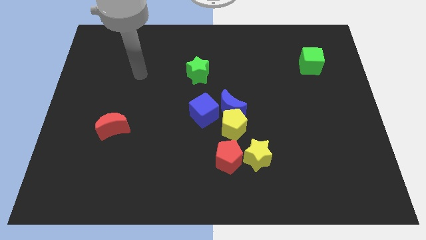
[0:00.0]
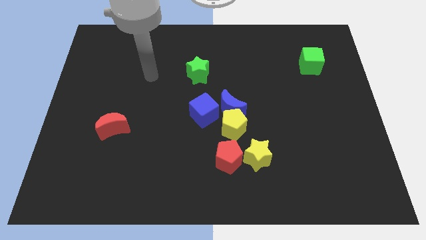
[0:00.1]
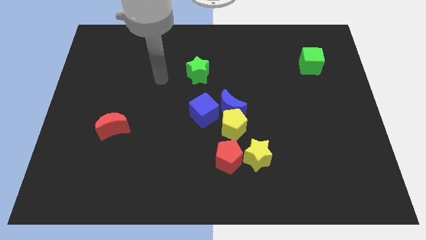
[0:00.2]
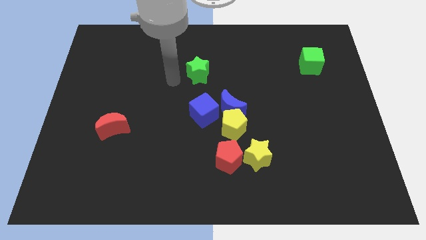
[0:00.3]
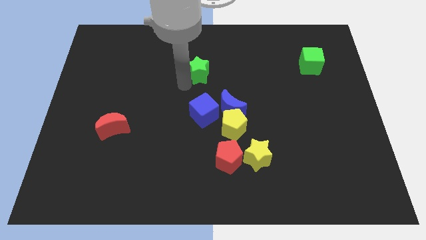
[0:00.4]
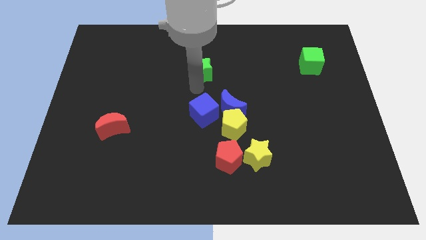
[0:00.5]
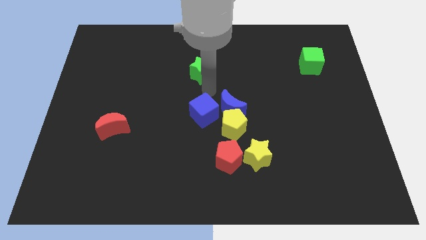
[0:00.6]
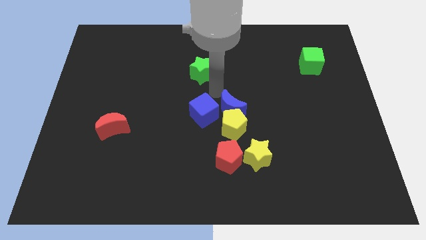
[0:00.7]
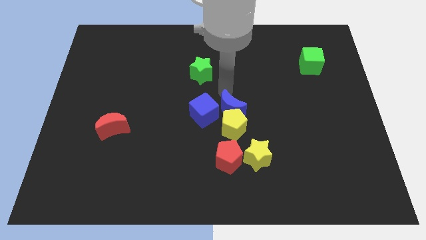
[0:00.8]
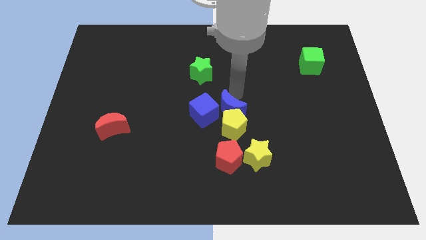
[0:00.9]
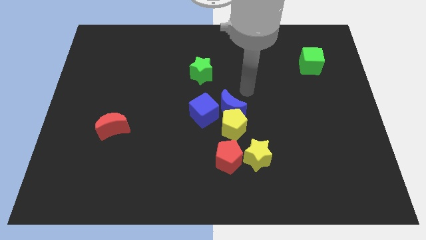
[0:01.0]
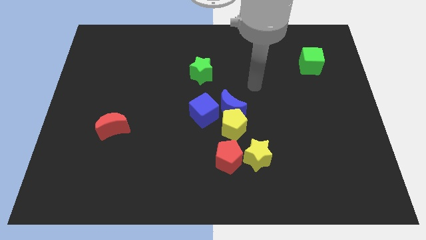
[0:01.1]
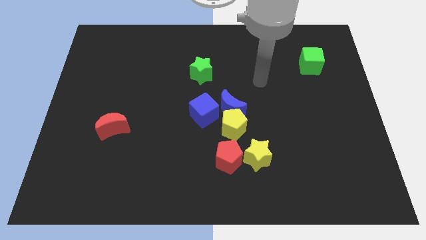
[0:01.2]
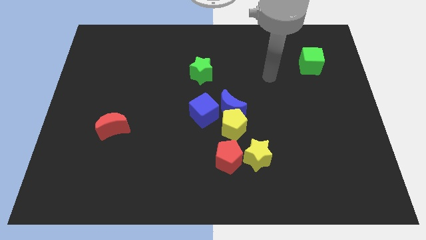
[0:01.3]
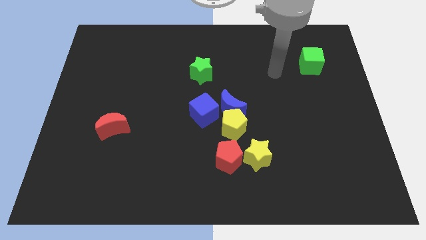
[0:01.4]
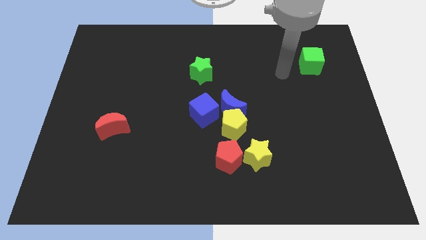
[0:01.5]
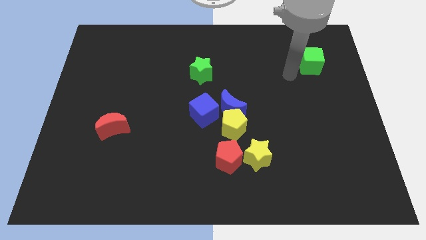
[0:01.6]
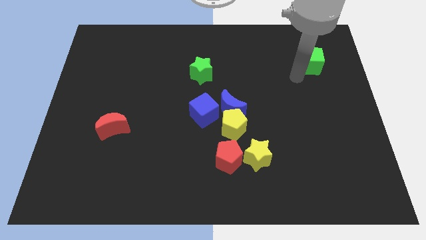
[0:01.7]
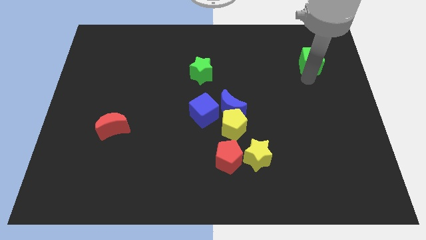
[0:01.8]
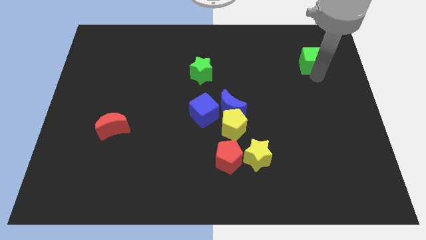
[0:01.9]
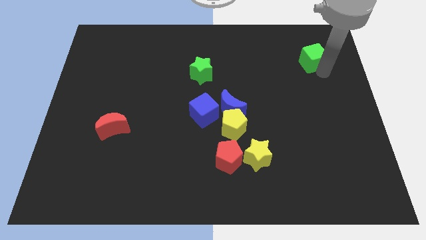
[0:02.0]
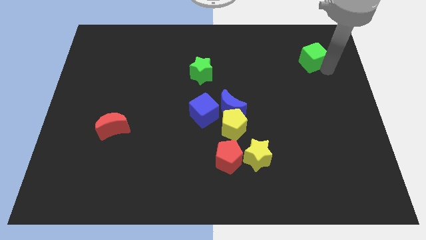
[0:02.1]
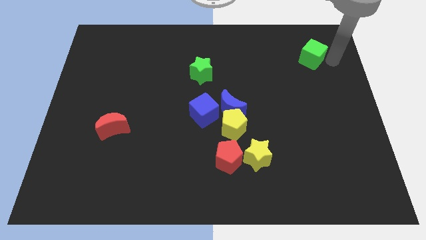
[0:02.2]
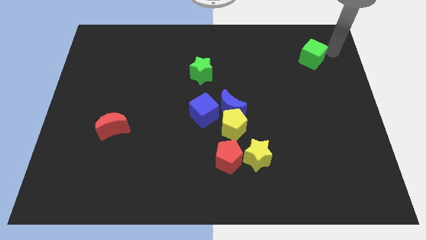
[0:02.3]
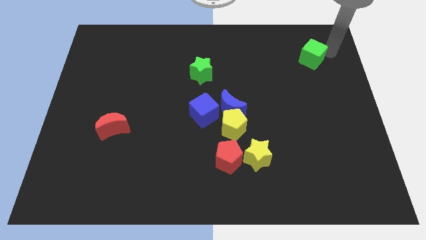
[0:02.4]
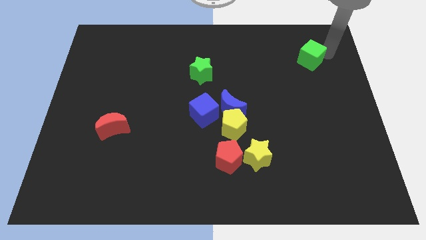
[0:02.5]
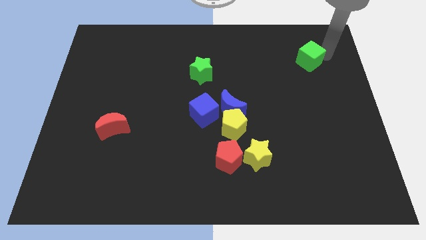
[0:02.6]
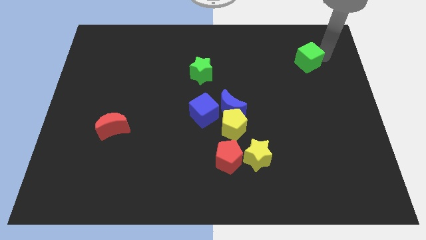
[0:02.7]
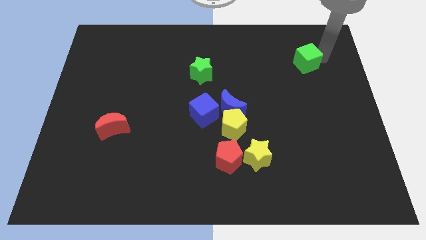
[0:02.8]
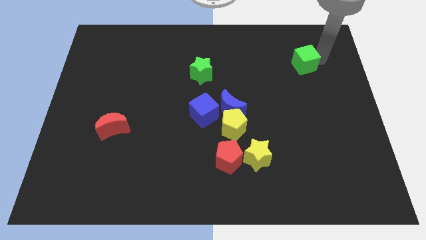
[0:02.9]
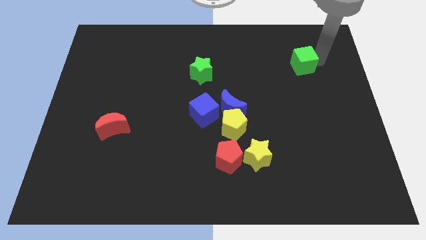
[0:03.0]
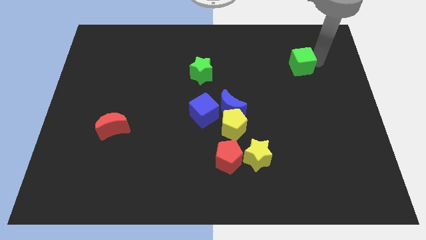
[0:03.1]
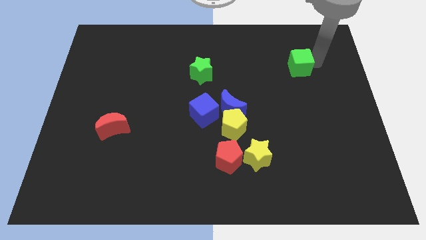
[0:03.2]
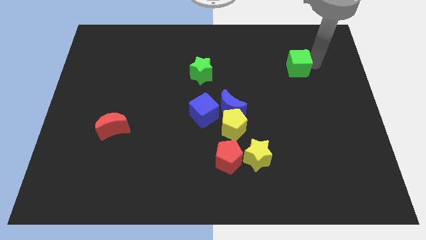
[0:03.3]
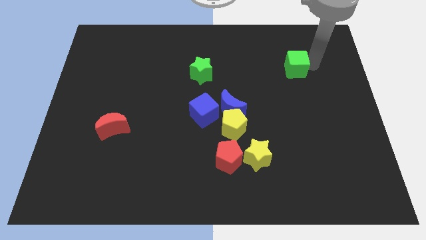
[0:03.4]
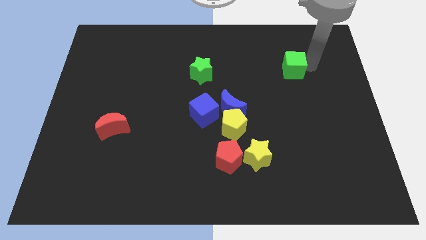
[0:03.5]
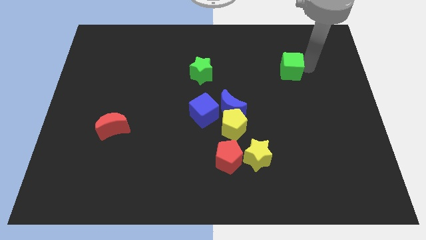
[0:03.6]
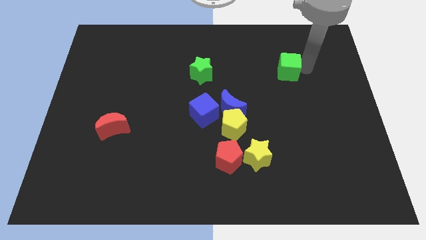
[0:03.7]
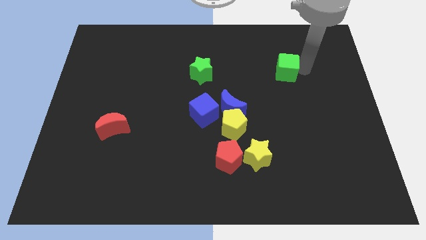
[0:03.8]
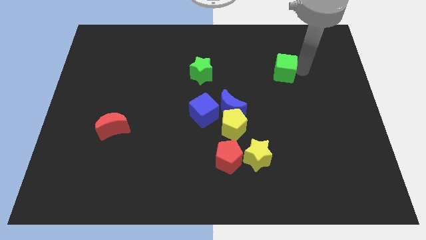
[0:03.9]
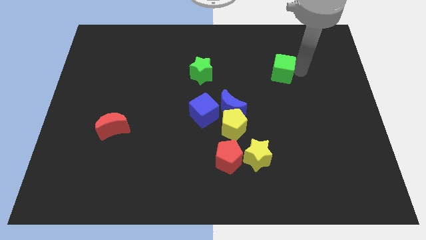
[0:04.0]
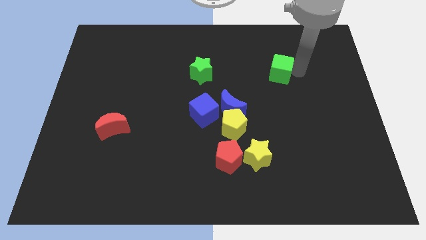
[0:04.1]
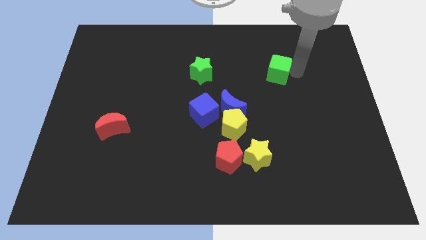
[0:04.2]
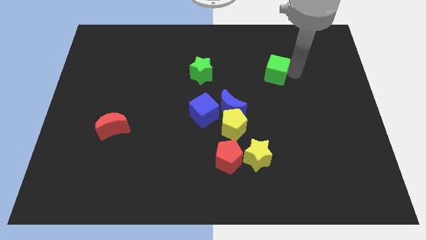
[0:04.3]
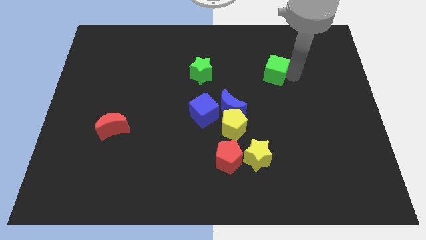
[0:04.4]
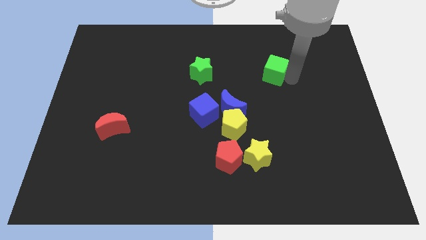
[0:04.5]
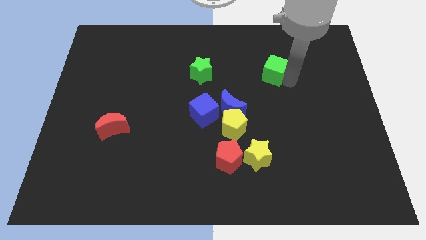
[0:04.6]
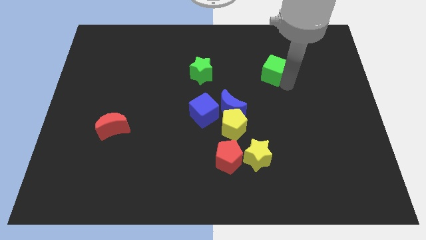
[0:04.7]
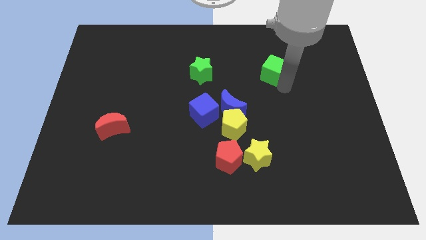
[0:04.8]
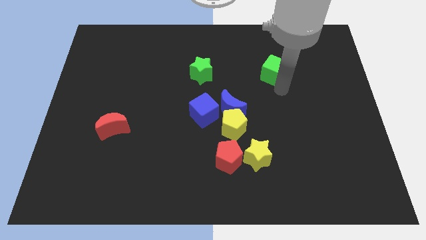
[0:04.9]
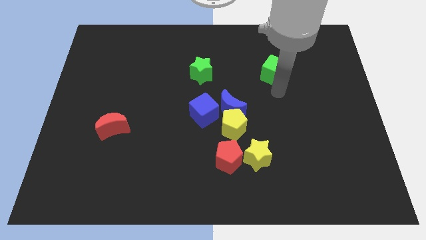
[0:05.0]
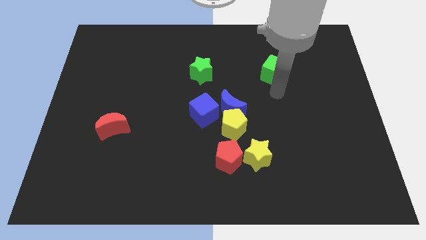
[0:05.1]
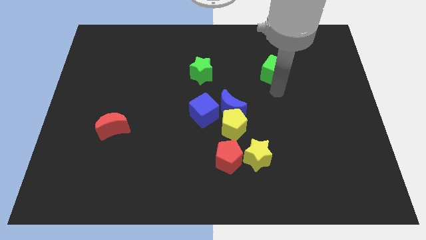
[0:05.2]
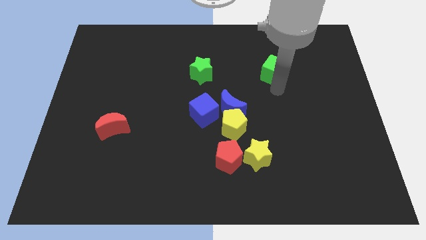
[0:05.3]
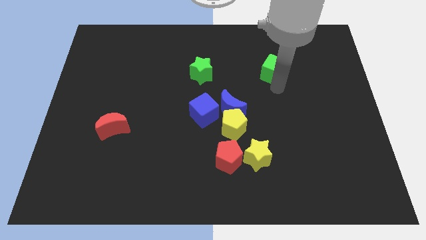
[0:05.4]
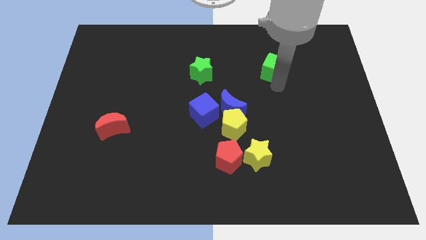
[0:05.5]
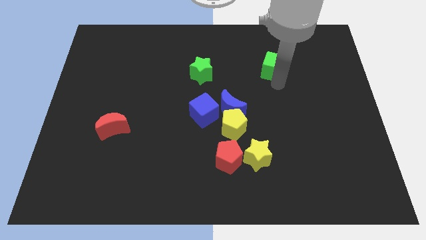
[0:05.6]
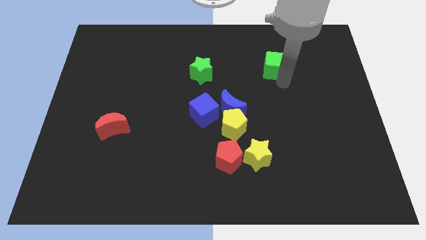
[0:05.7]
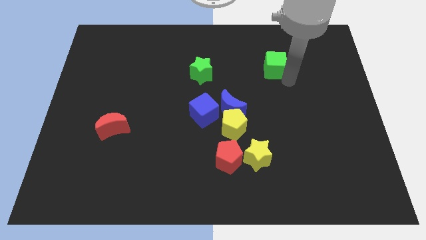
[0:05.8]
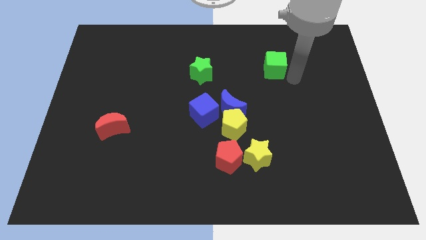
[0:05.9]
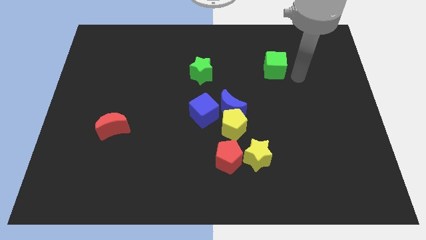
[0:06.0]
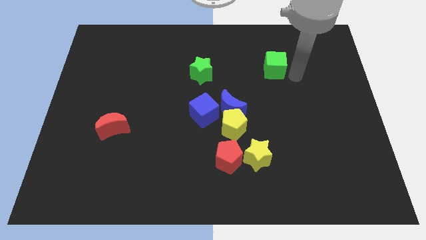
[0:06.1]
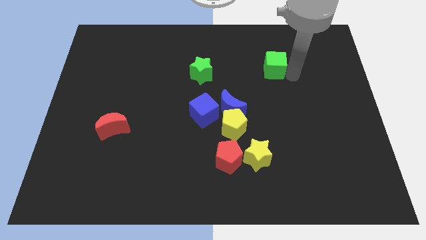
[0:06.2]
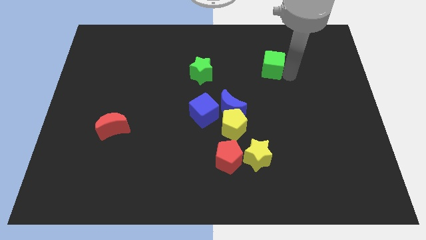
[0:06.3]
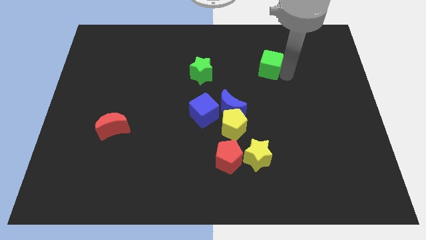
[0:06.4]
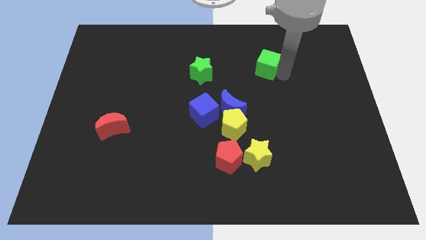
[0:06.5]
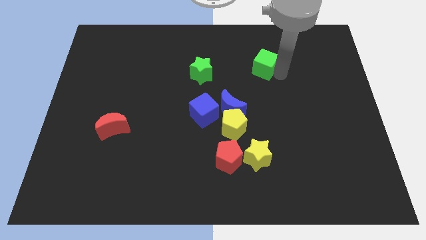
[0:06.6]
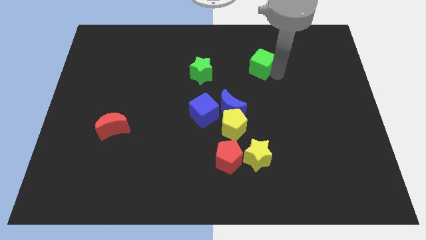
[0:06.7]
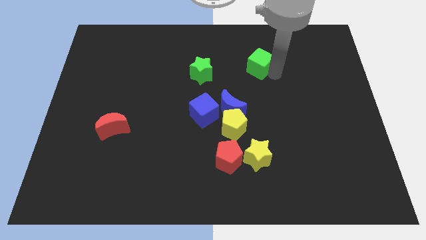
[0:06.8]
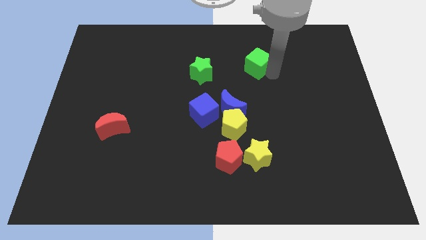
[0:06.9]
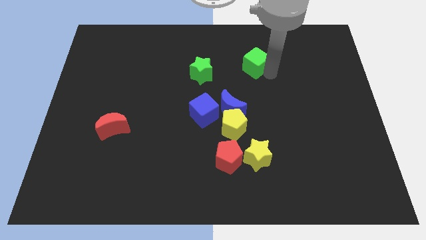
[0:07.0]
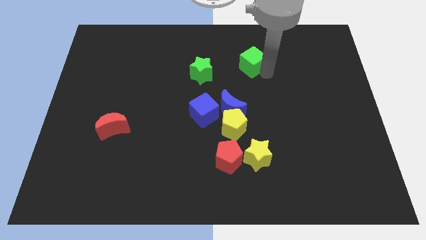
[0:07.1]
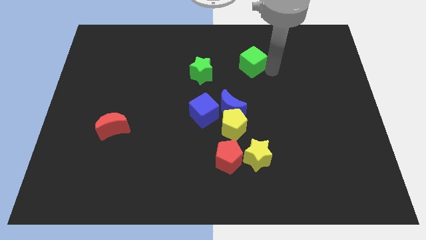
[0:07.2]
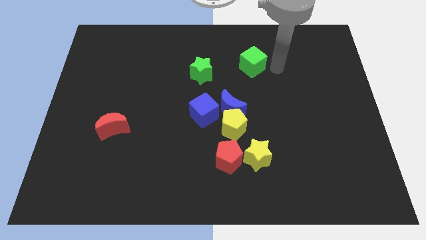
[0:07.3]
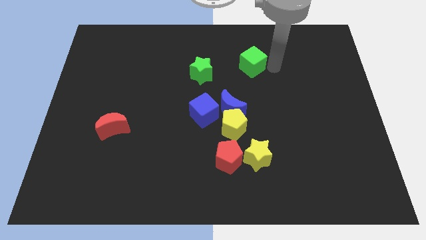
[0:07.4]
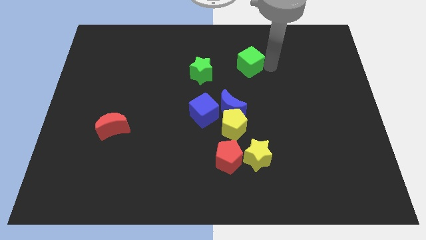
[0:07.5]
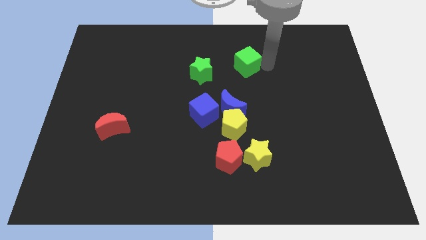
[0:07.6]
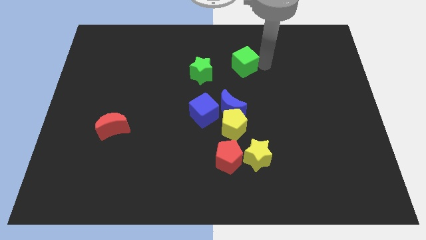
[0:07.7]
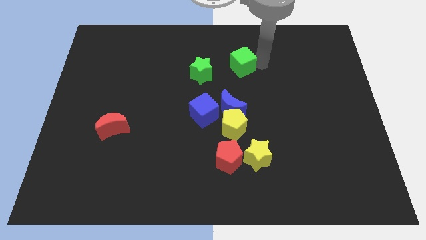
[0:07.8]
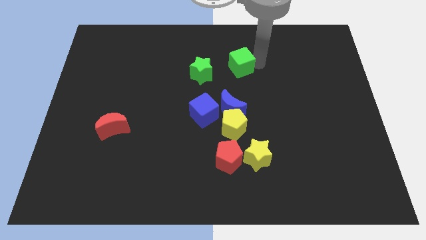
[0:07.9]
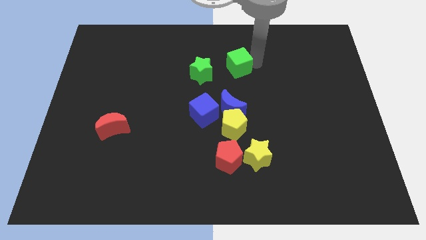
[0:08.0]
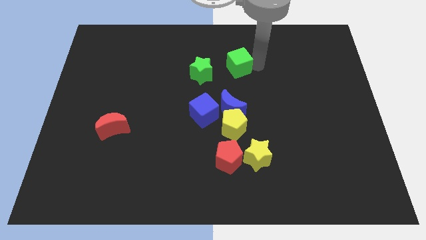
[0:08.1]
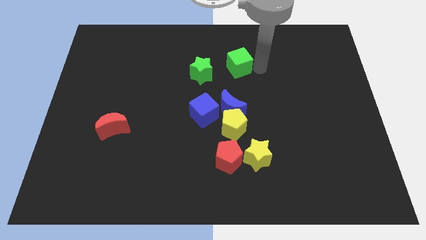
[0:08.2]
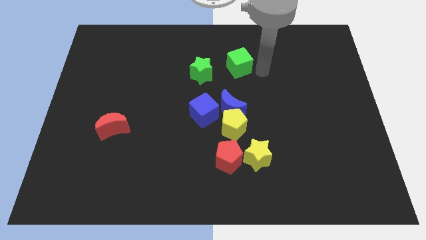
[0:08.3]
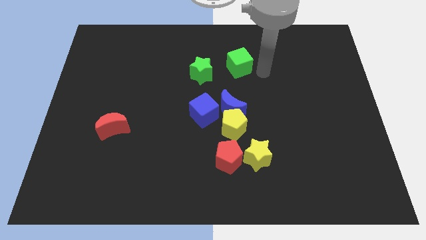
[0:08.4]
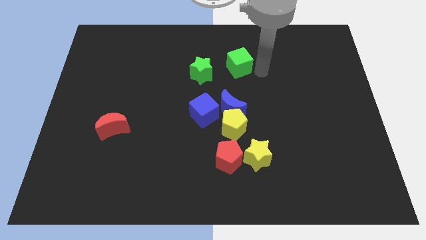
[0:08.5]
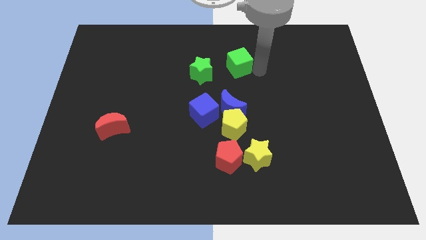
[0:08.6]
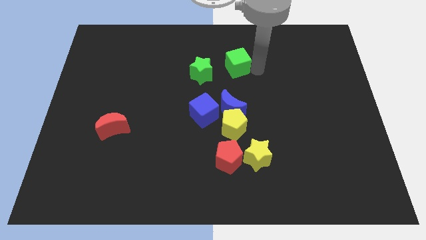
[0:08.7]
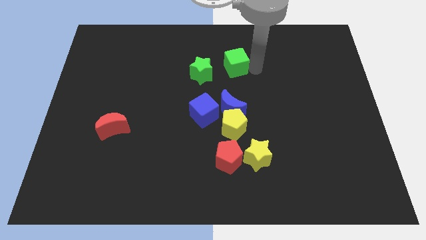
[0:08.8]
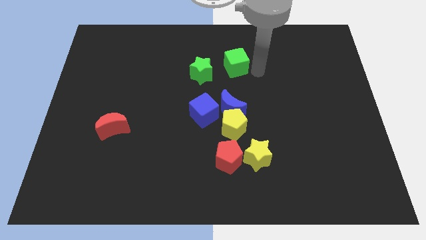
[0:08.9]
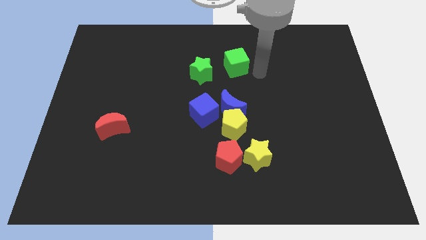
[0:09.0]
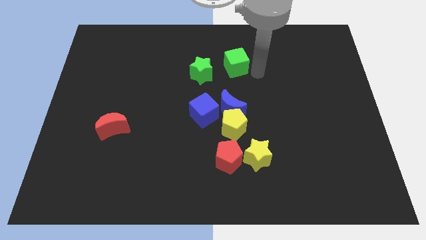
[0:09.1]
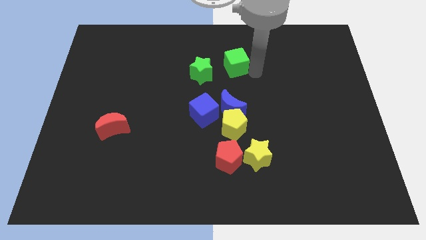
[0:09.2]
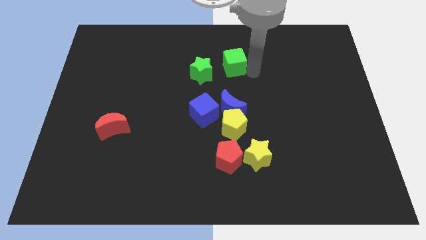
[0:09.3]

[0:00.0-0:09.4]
move the green cube to the left
